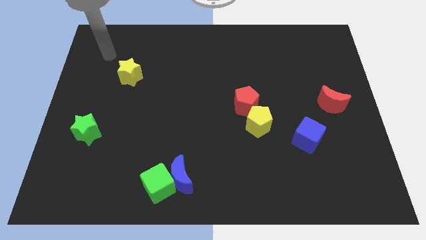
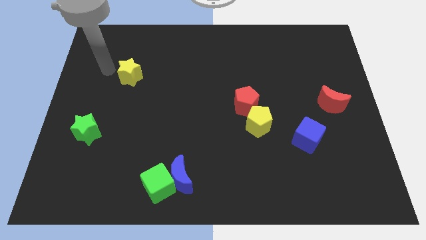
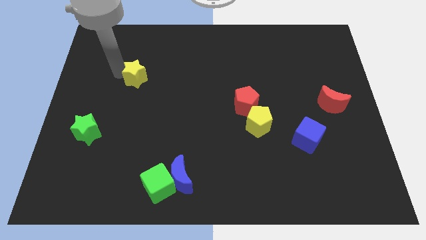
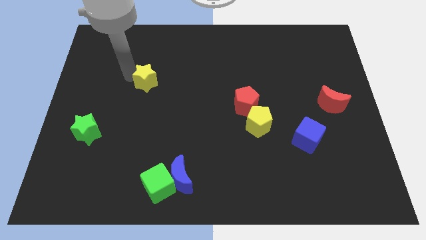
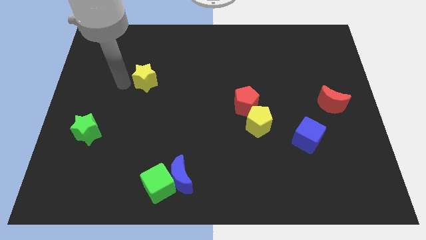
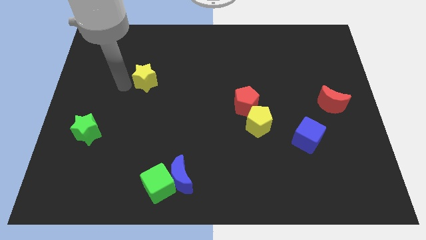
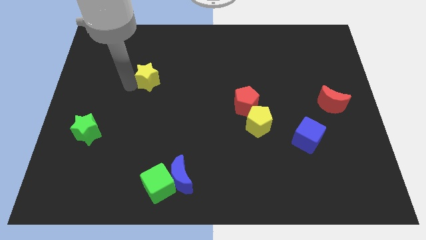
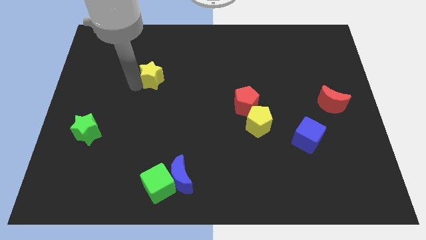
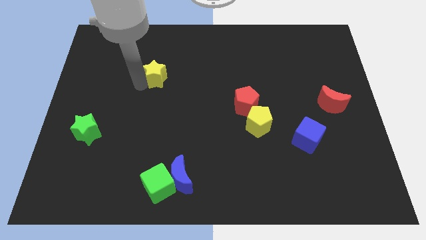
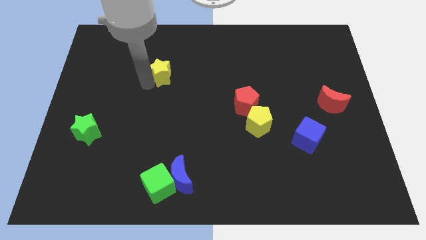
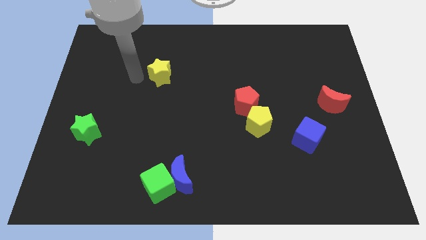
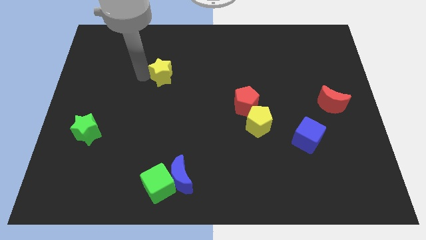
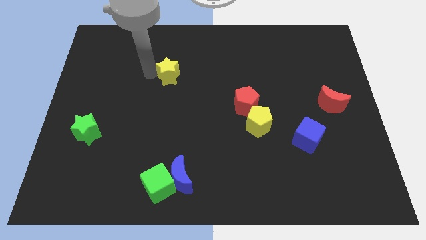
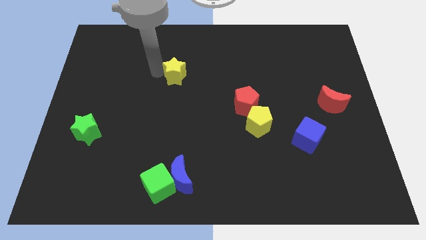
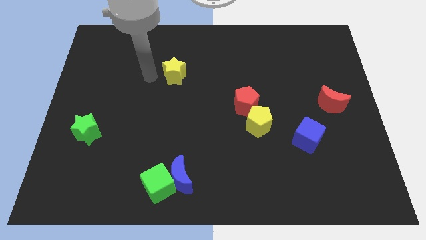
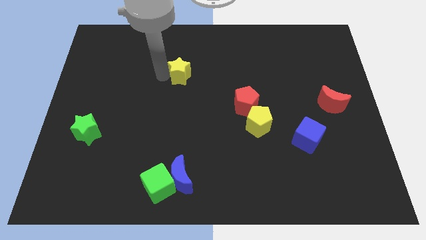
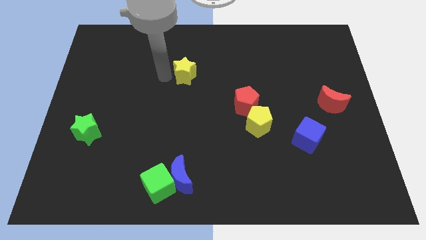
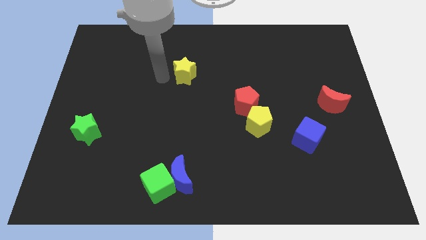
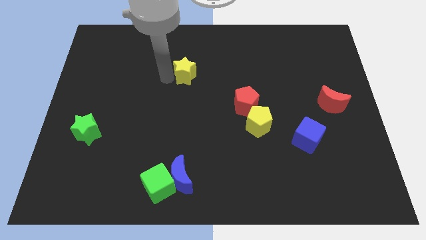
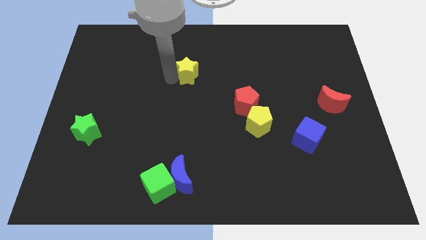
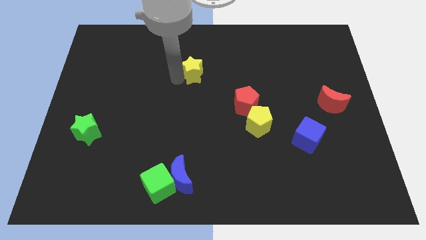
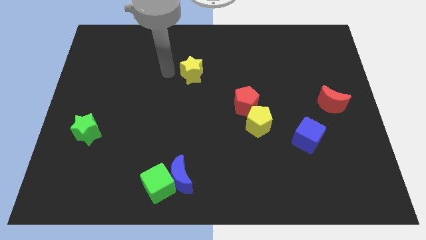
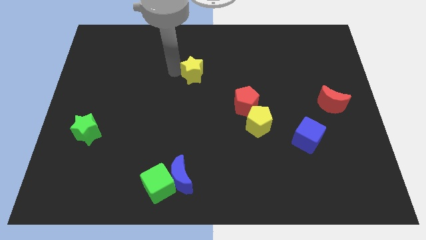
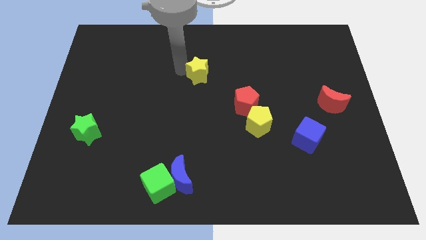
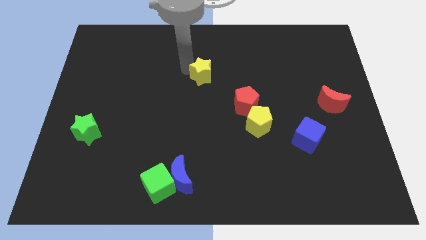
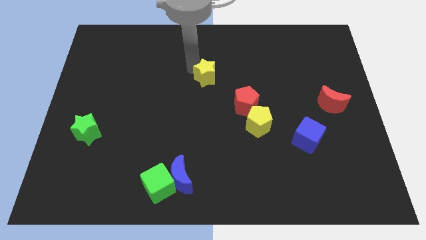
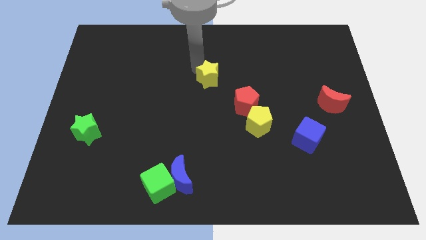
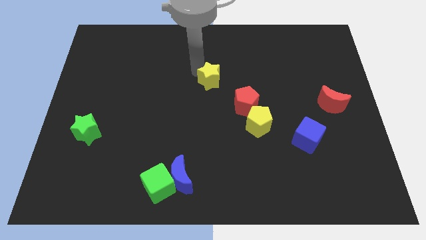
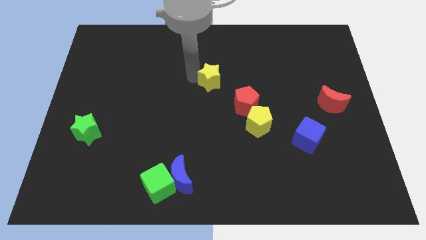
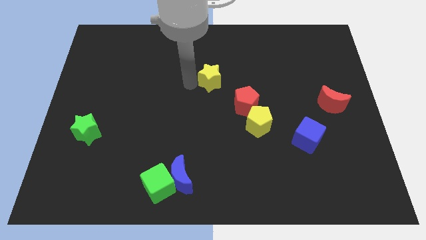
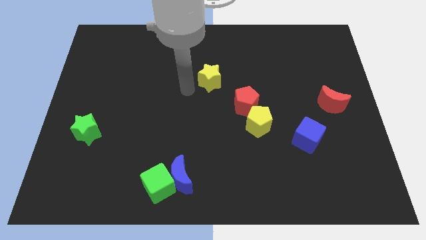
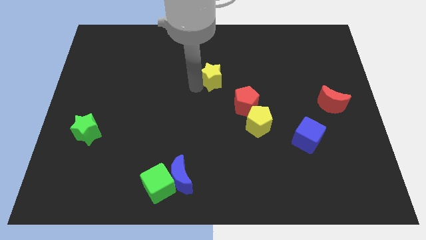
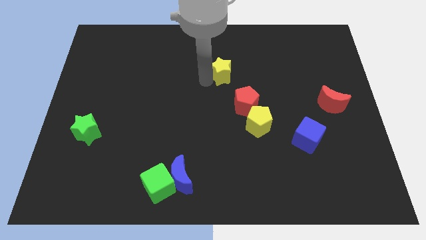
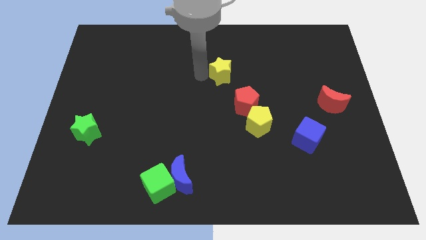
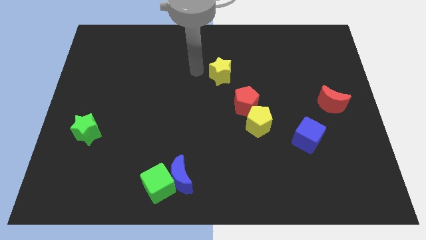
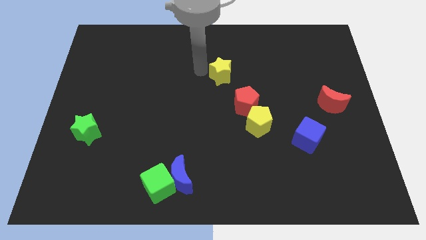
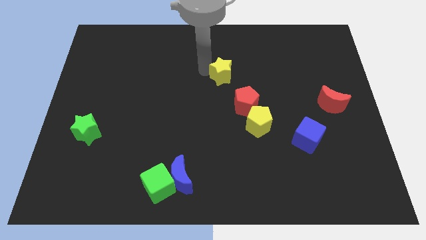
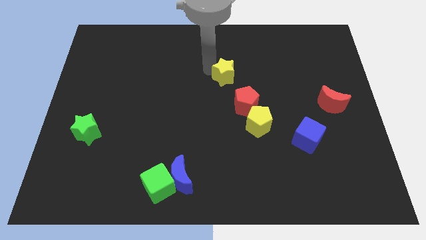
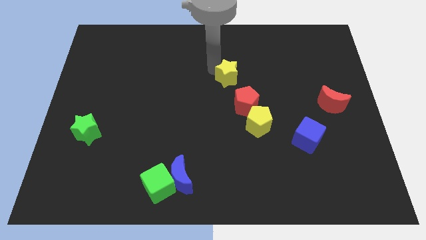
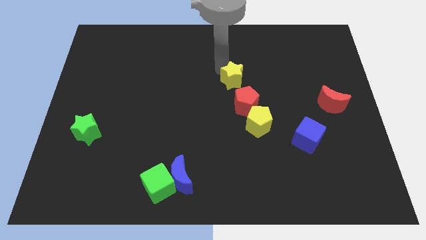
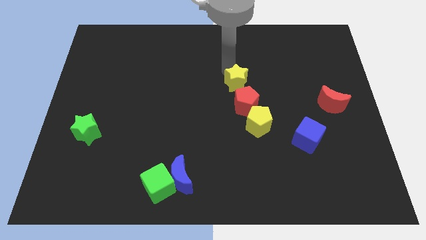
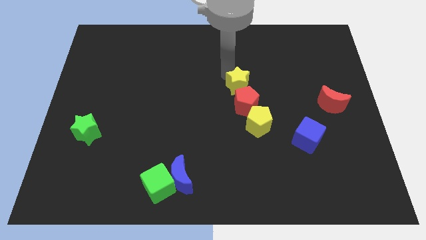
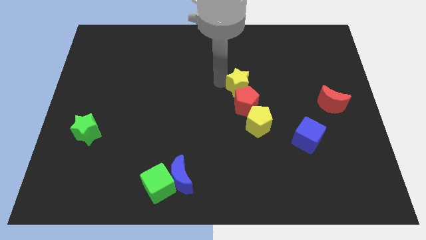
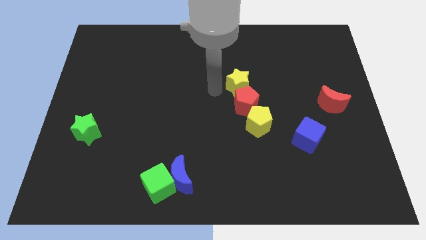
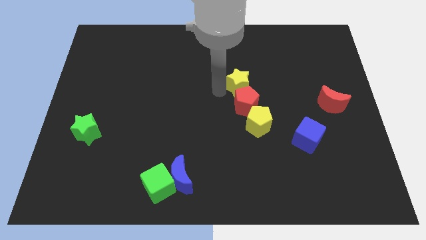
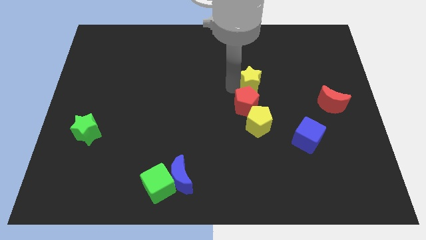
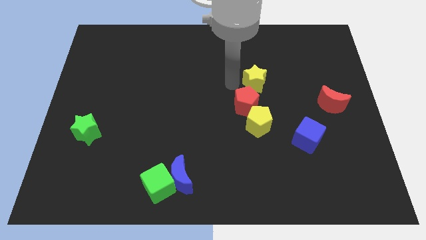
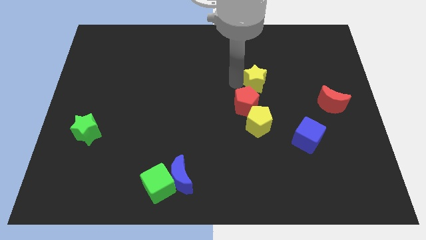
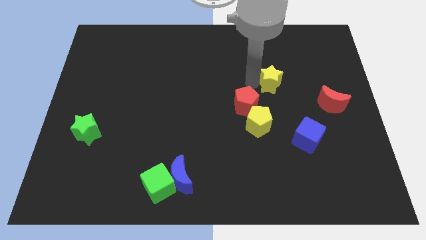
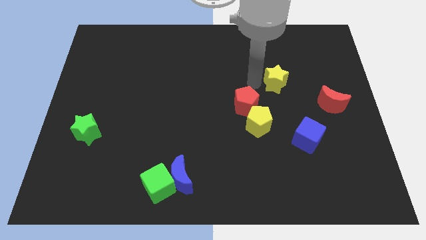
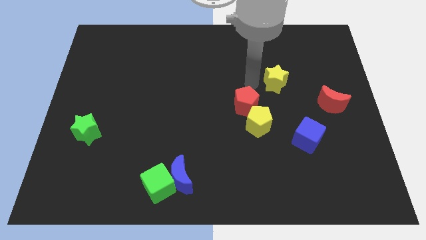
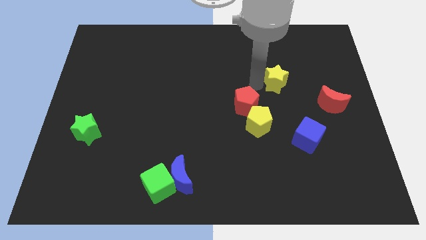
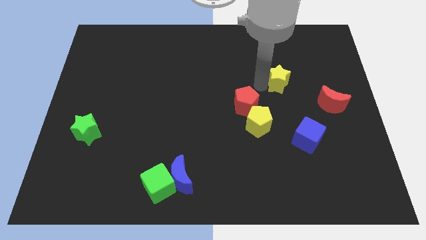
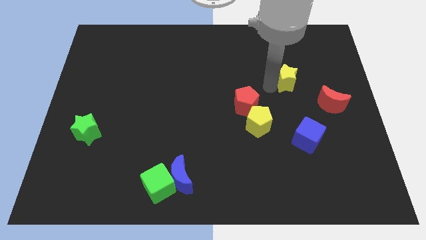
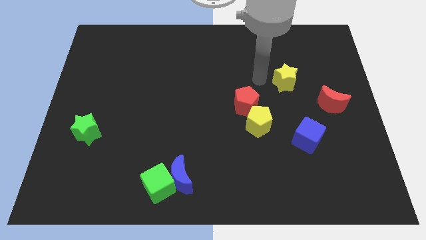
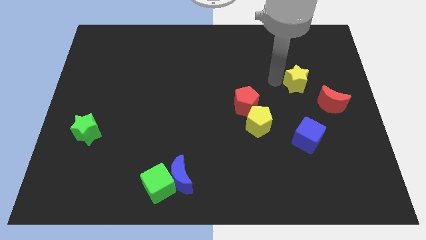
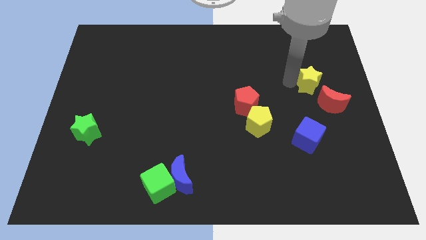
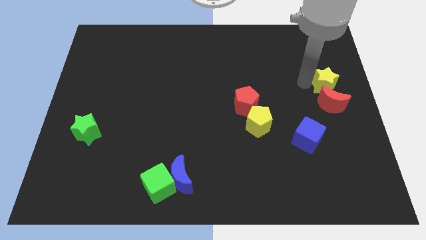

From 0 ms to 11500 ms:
put the yellow star to the right side

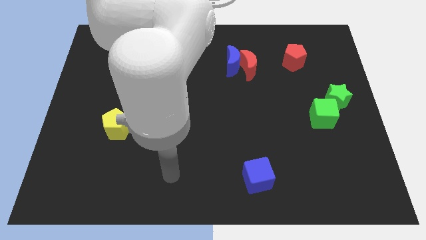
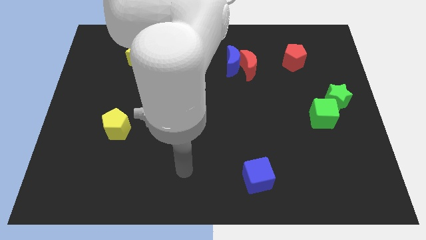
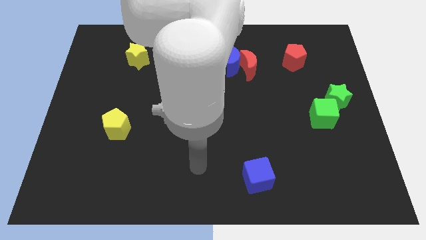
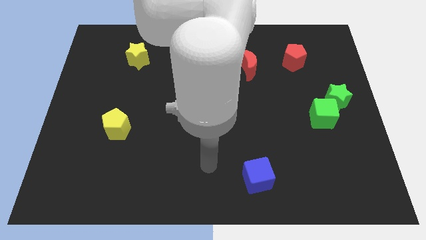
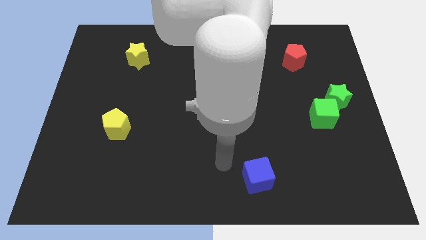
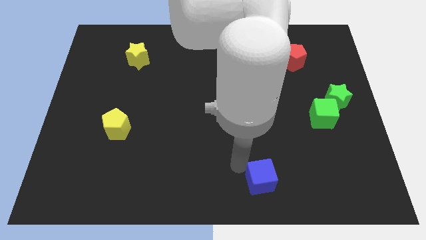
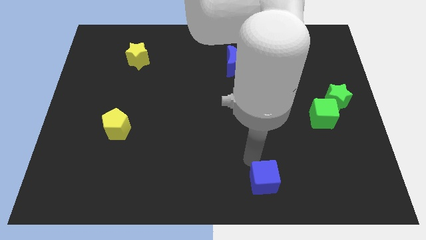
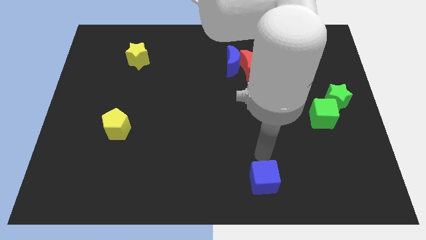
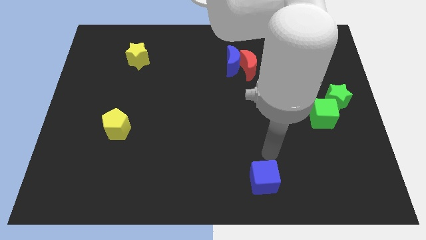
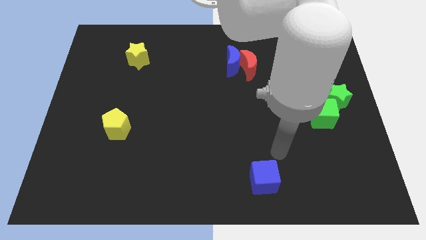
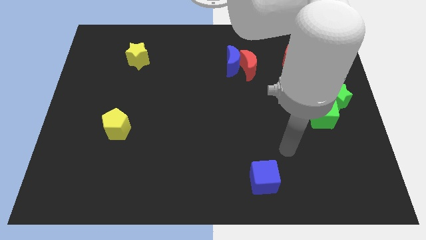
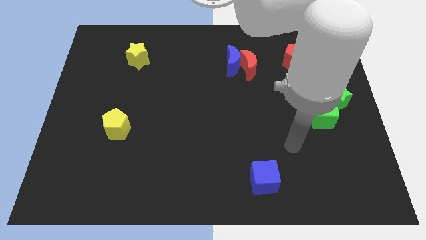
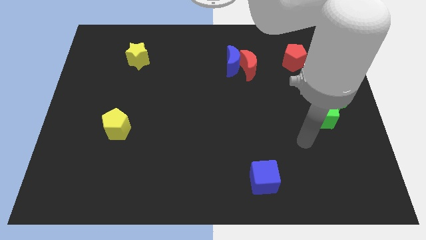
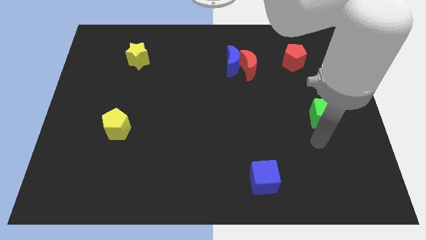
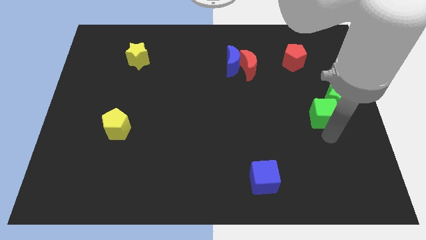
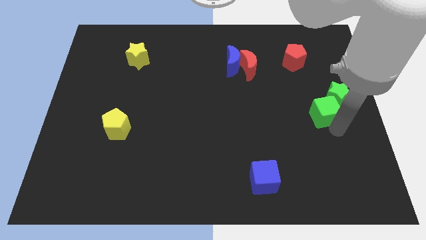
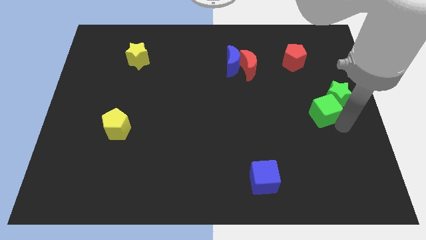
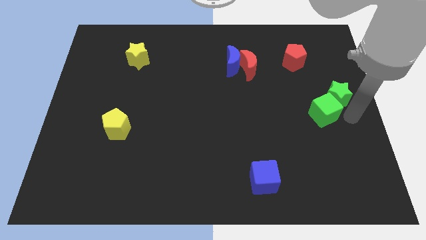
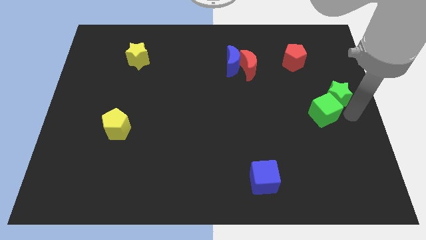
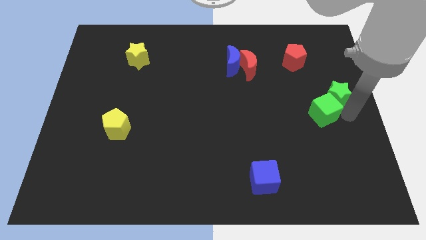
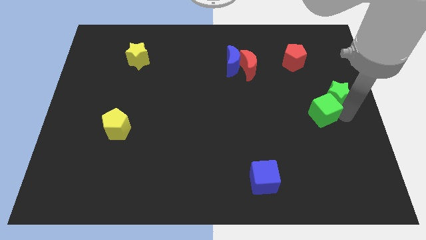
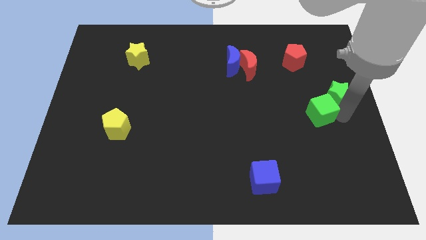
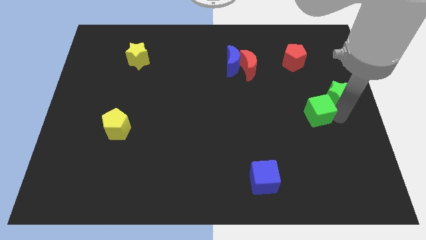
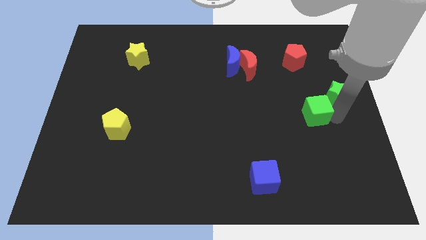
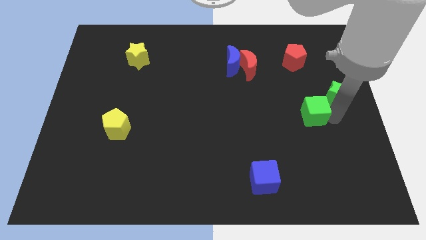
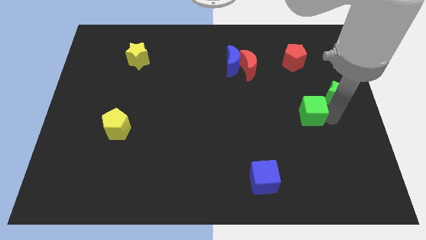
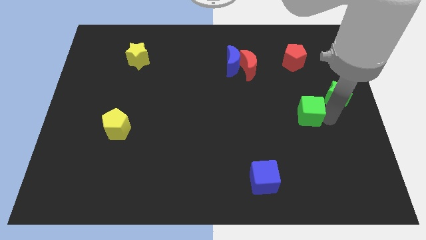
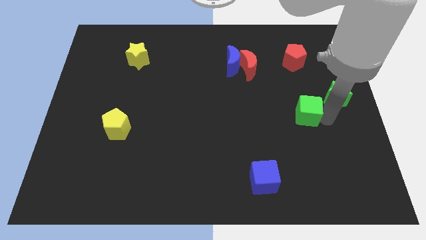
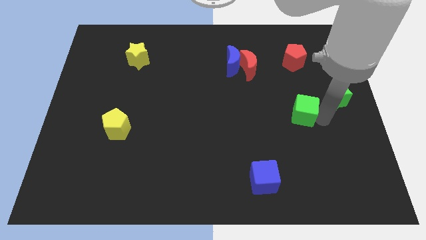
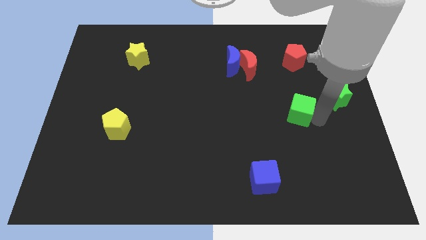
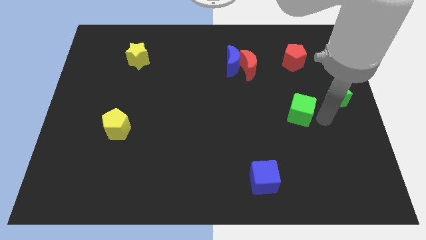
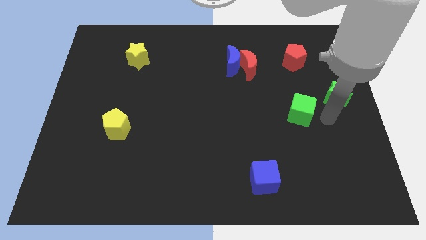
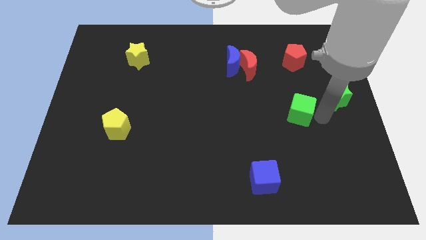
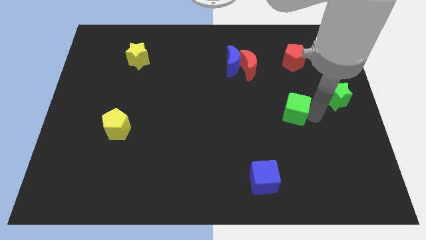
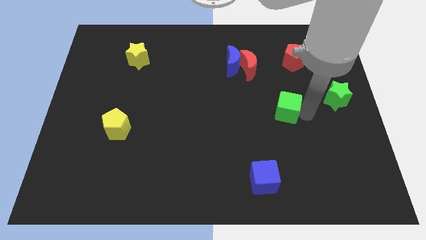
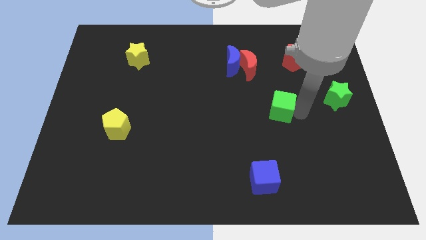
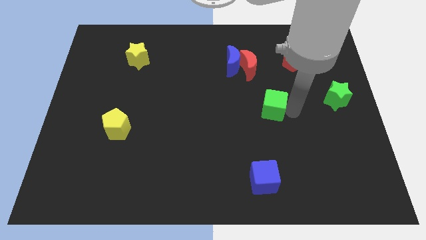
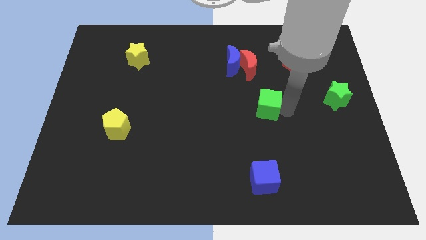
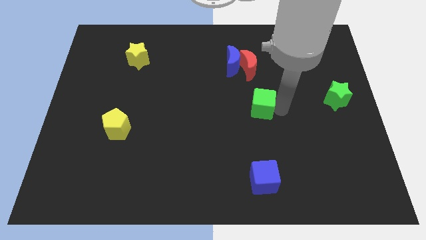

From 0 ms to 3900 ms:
slide the green cube to the middle of the board
